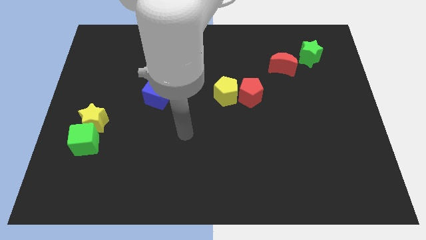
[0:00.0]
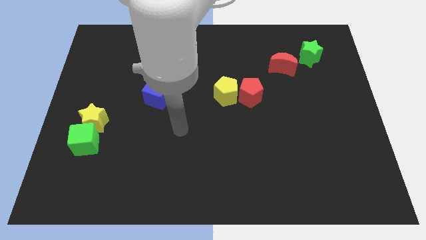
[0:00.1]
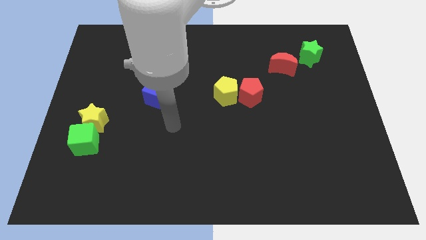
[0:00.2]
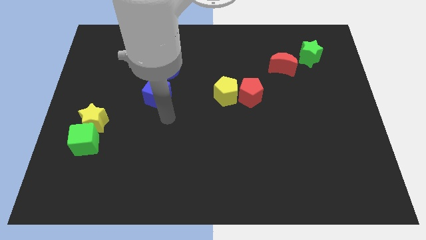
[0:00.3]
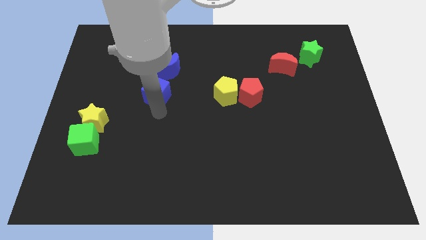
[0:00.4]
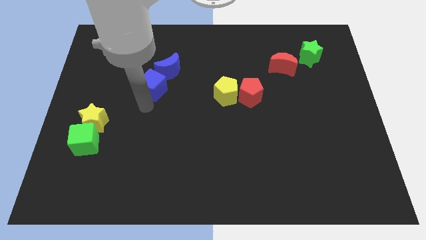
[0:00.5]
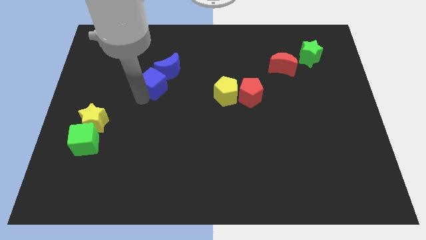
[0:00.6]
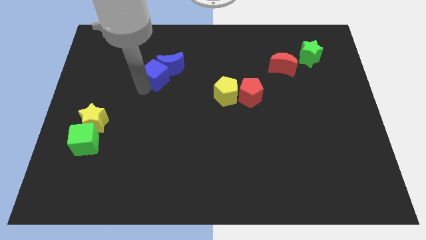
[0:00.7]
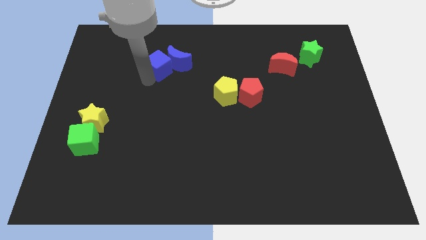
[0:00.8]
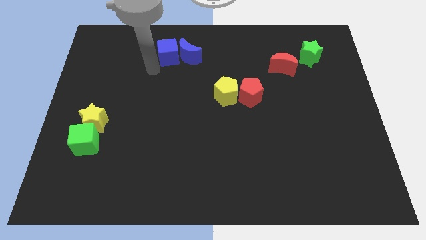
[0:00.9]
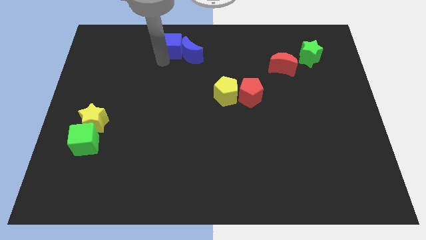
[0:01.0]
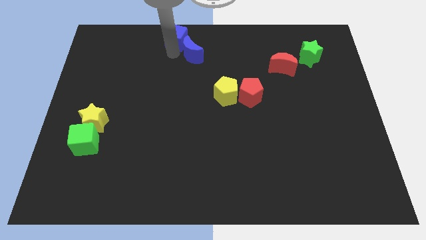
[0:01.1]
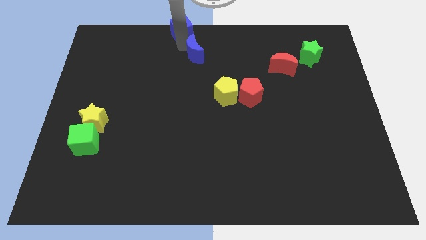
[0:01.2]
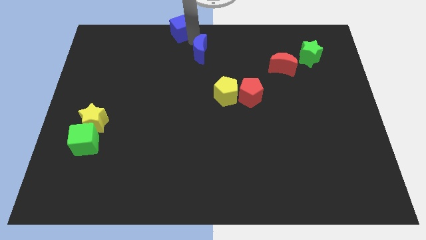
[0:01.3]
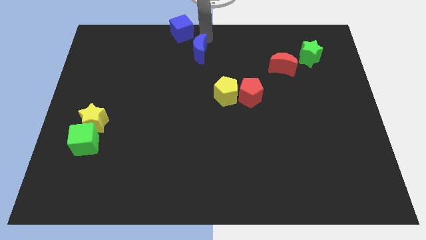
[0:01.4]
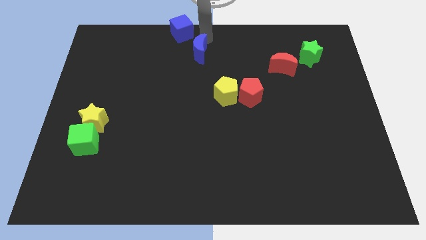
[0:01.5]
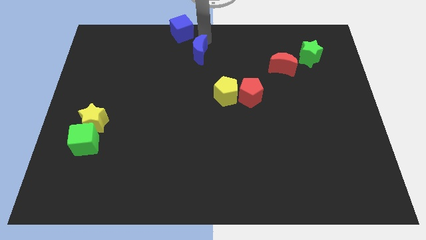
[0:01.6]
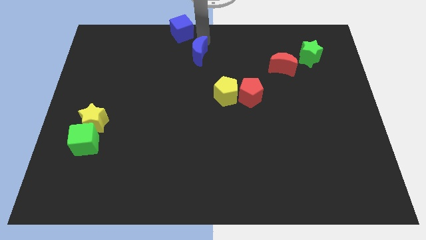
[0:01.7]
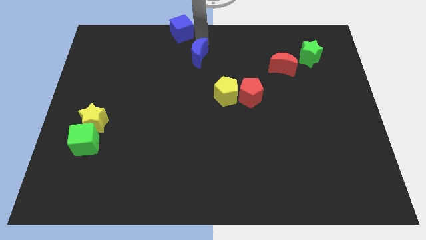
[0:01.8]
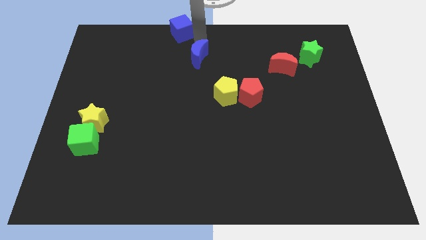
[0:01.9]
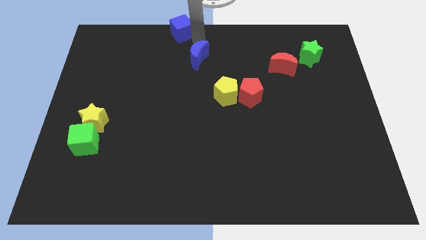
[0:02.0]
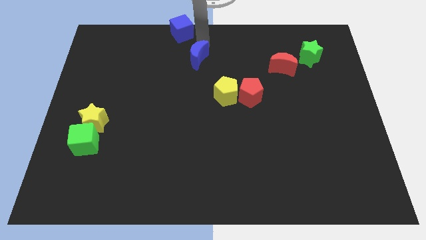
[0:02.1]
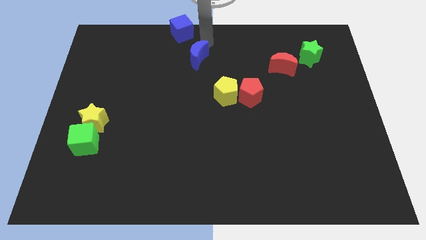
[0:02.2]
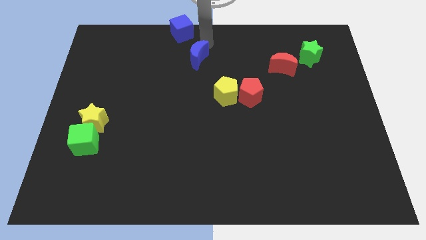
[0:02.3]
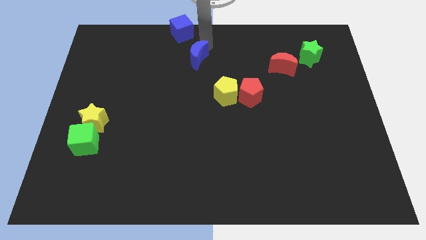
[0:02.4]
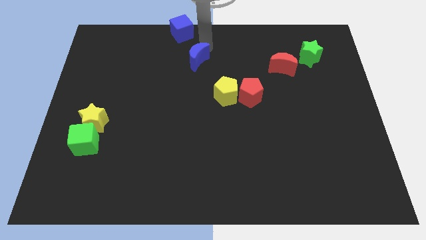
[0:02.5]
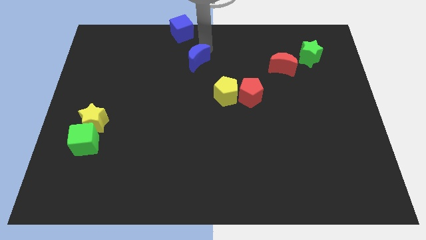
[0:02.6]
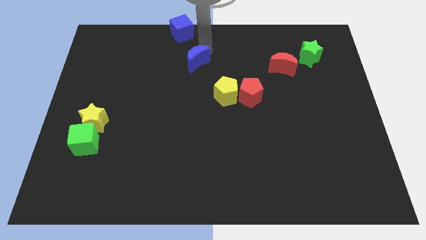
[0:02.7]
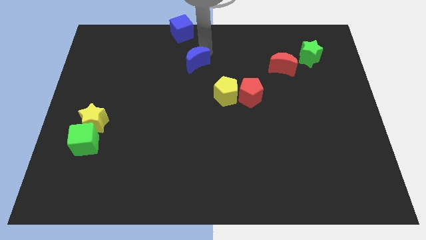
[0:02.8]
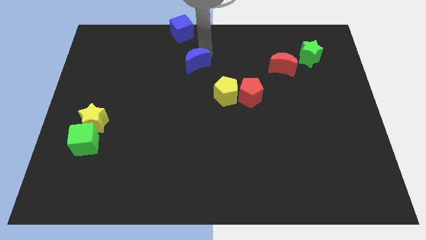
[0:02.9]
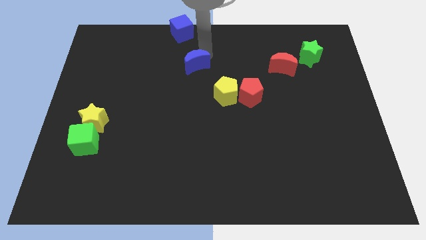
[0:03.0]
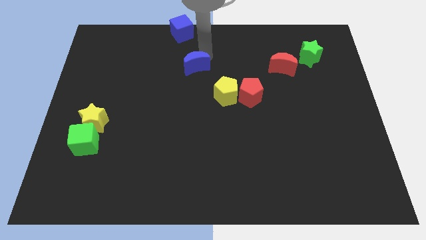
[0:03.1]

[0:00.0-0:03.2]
slide the blue moon right a little bit

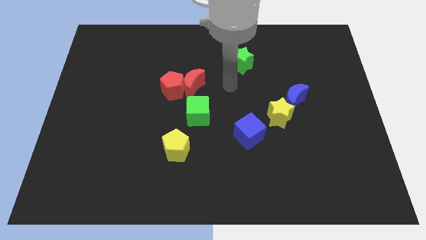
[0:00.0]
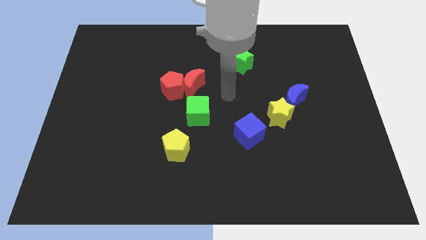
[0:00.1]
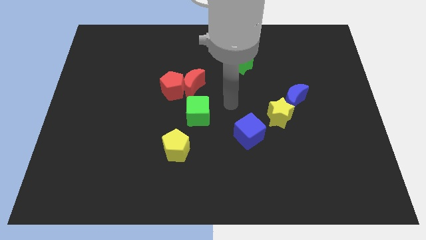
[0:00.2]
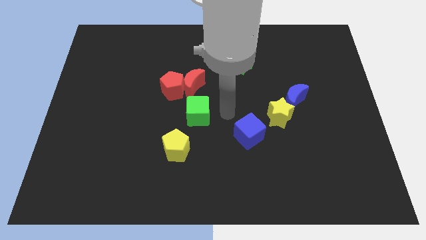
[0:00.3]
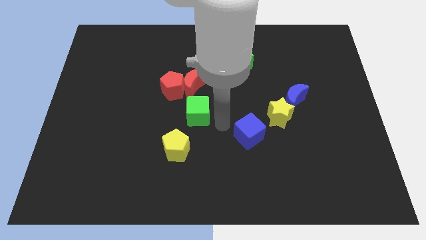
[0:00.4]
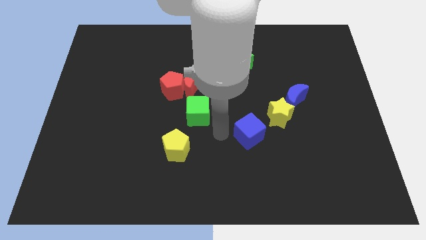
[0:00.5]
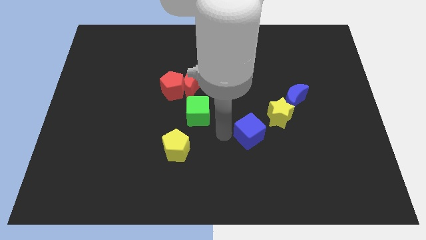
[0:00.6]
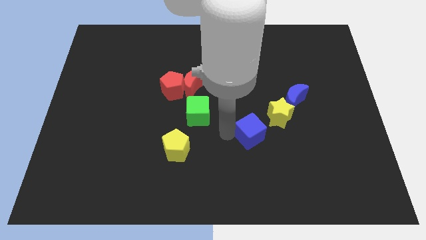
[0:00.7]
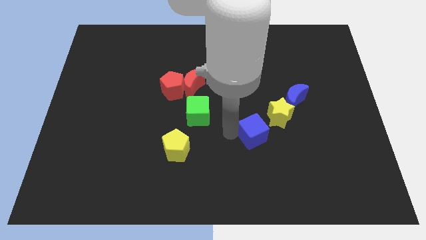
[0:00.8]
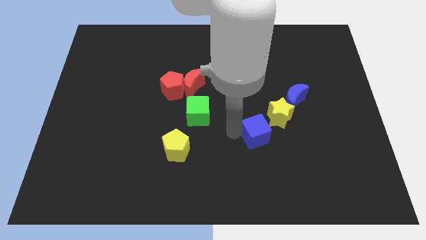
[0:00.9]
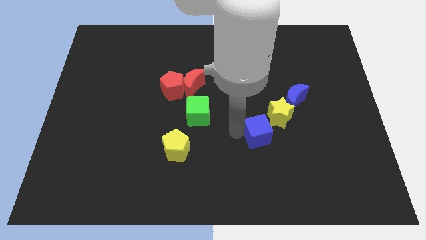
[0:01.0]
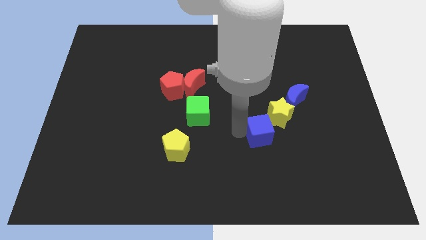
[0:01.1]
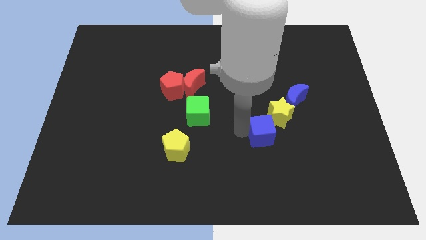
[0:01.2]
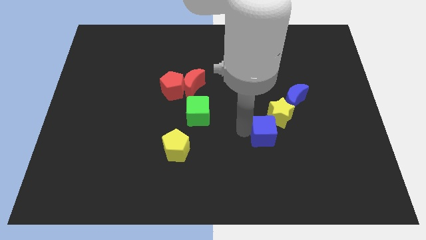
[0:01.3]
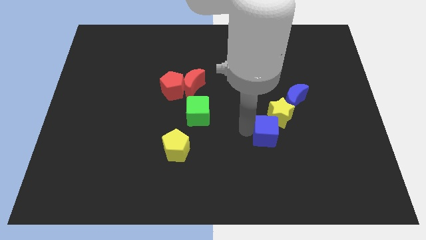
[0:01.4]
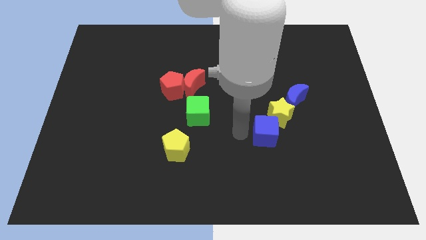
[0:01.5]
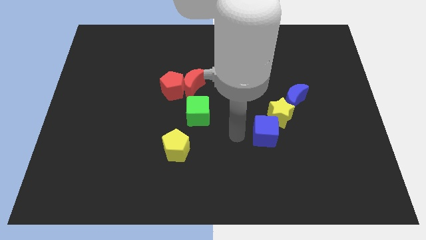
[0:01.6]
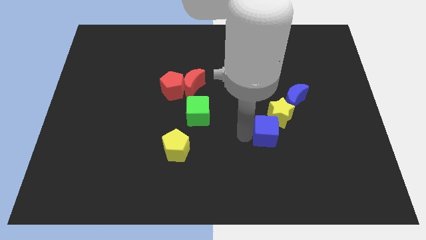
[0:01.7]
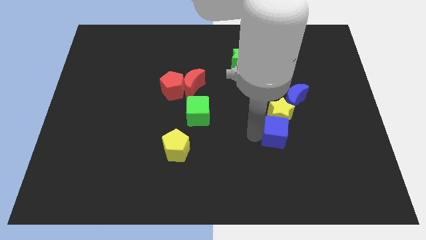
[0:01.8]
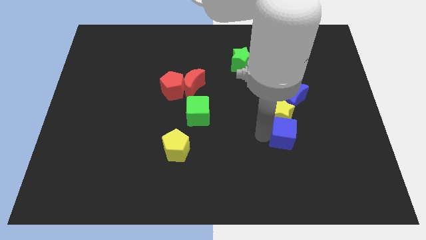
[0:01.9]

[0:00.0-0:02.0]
slide the blue cube a little right

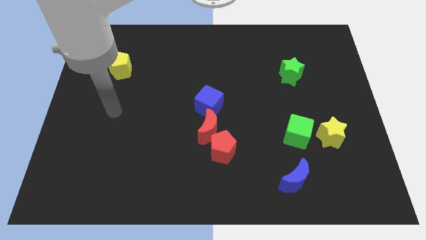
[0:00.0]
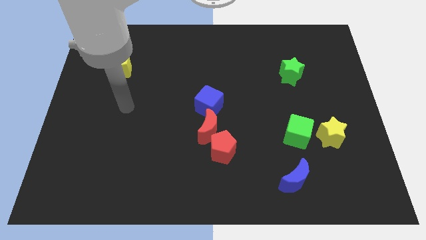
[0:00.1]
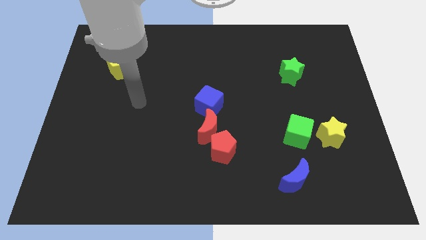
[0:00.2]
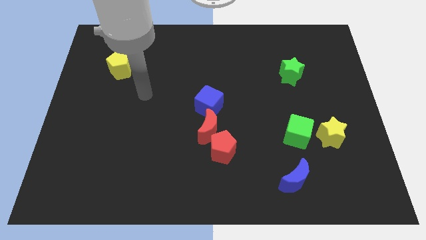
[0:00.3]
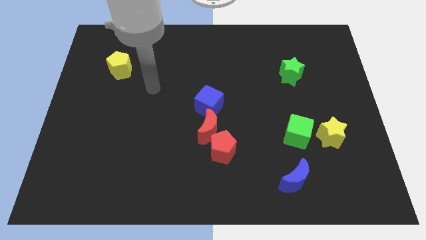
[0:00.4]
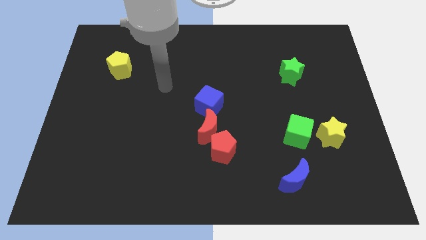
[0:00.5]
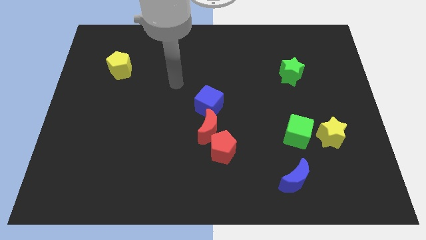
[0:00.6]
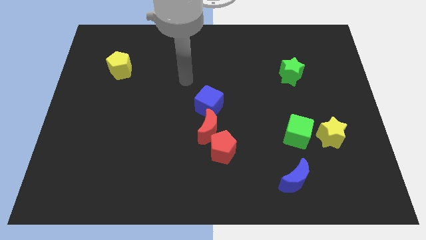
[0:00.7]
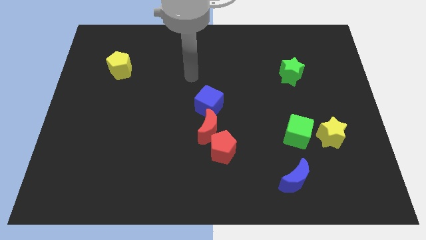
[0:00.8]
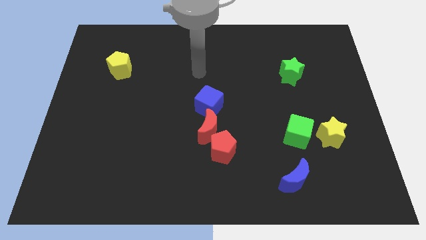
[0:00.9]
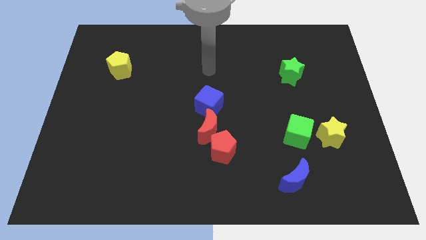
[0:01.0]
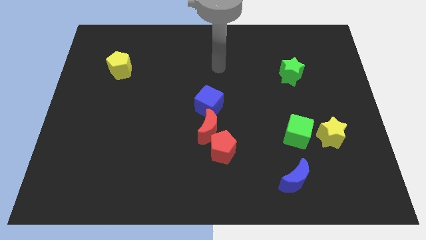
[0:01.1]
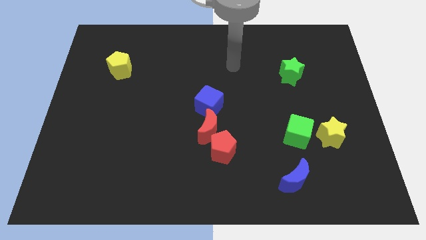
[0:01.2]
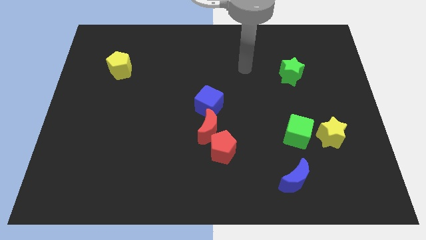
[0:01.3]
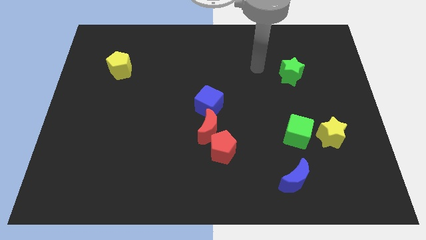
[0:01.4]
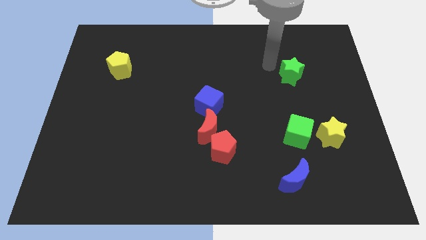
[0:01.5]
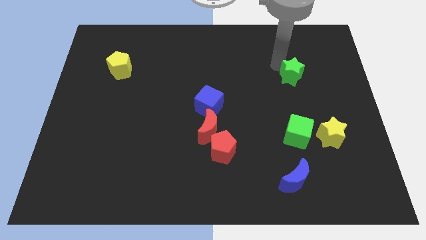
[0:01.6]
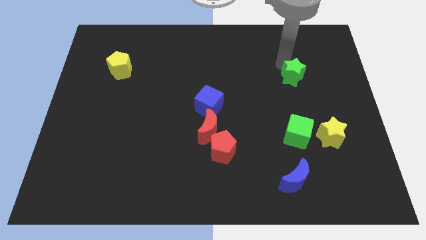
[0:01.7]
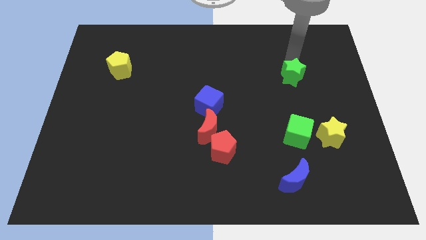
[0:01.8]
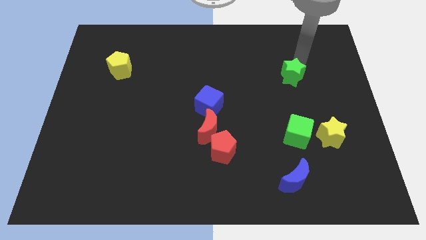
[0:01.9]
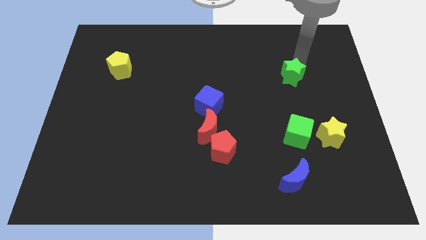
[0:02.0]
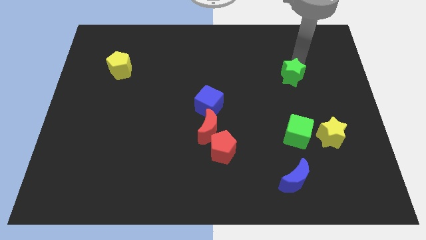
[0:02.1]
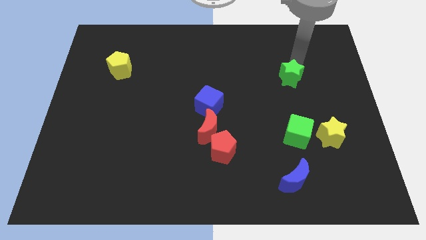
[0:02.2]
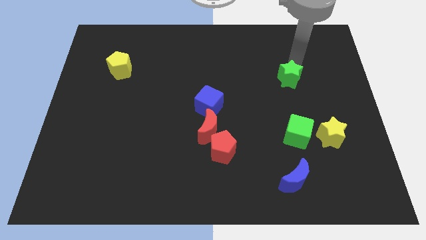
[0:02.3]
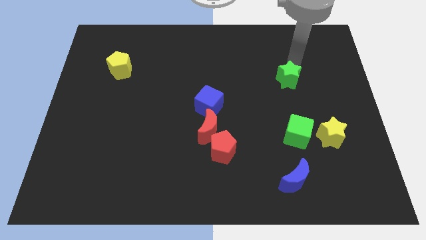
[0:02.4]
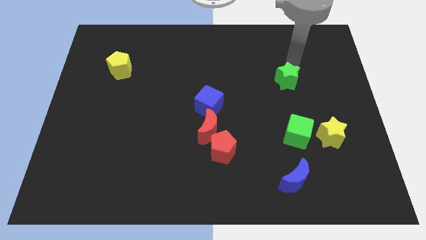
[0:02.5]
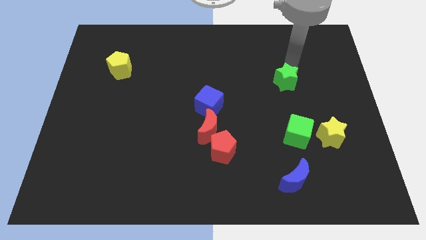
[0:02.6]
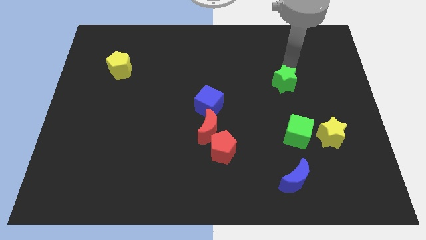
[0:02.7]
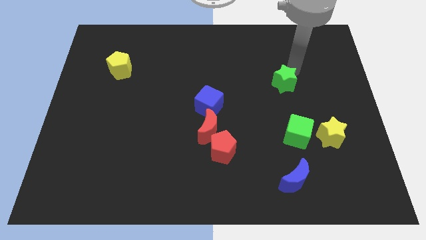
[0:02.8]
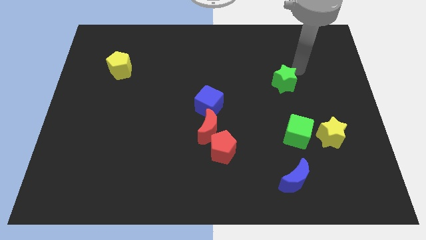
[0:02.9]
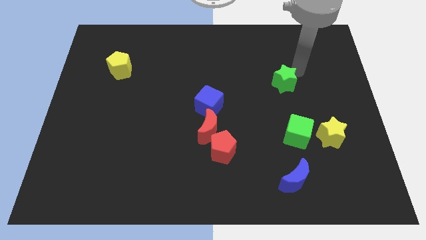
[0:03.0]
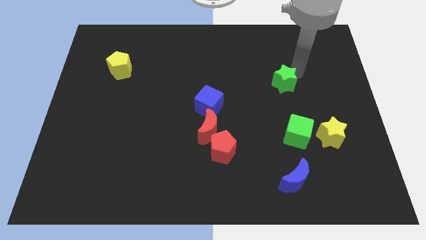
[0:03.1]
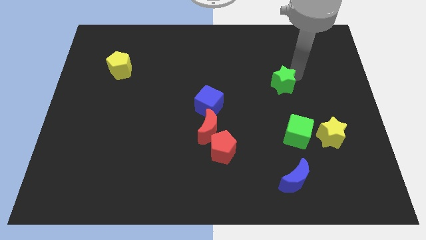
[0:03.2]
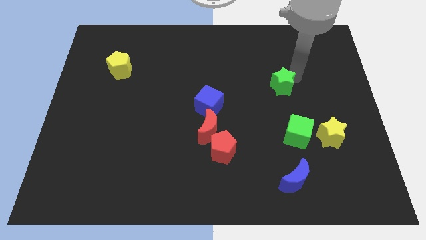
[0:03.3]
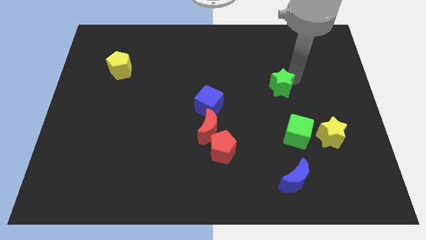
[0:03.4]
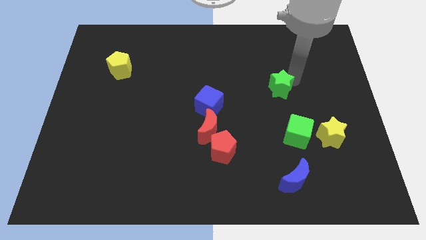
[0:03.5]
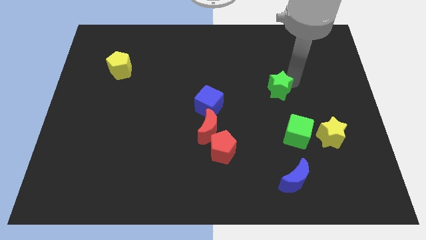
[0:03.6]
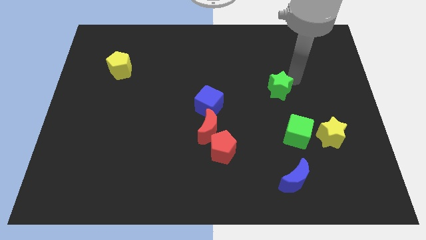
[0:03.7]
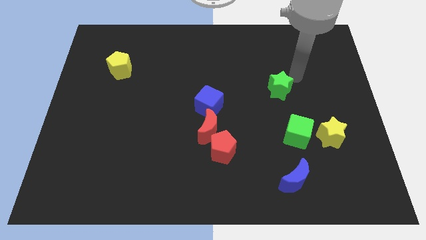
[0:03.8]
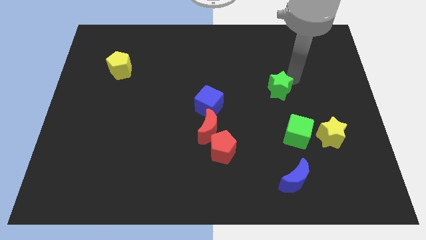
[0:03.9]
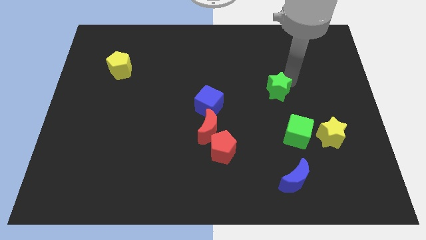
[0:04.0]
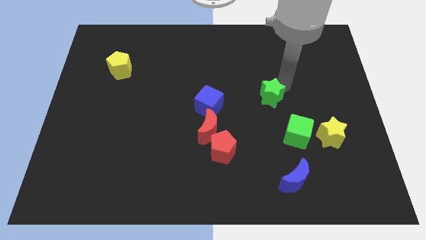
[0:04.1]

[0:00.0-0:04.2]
slightly push the green star downwards and left
